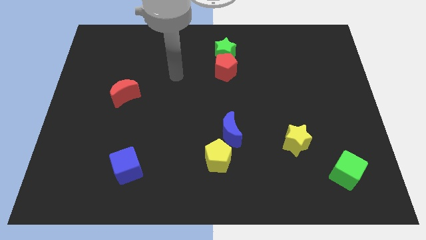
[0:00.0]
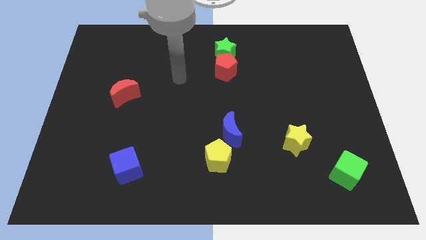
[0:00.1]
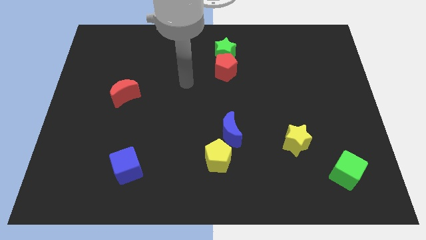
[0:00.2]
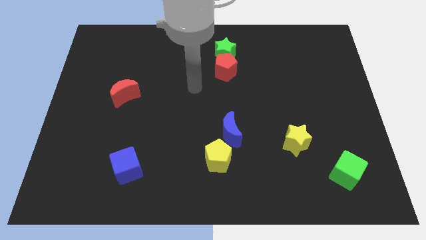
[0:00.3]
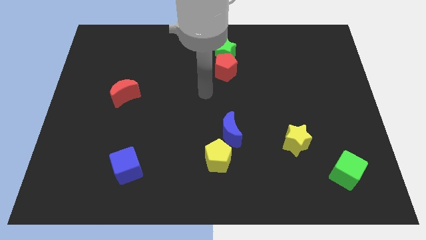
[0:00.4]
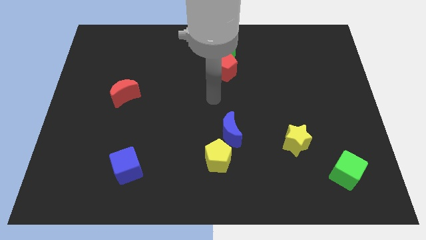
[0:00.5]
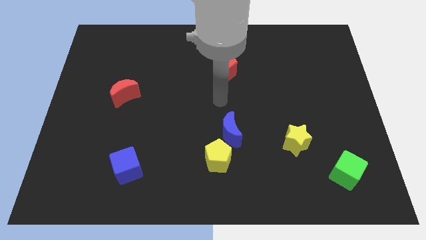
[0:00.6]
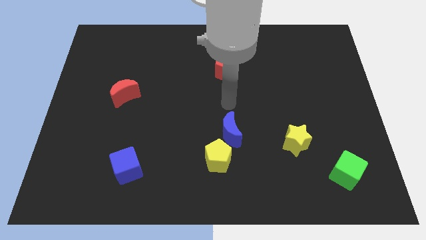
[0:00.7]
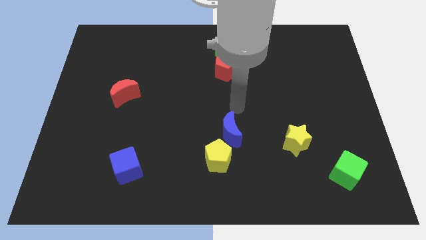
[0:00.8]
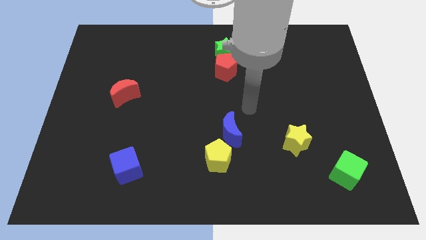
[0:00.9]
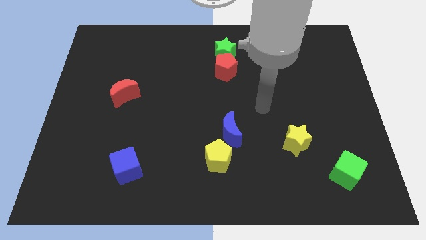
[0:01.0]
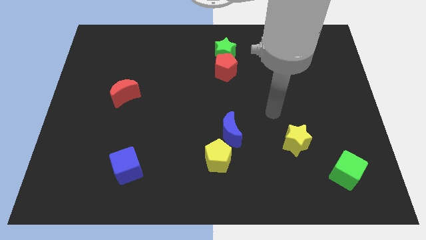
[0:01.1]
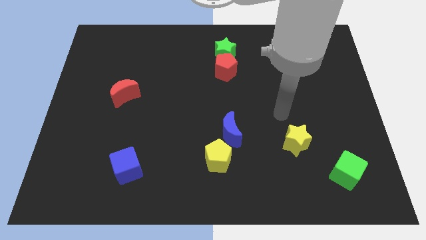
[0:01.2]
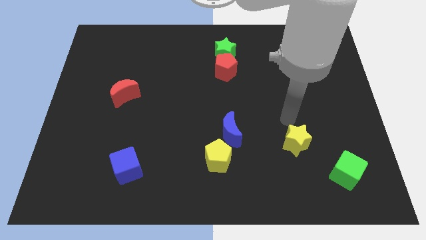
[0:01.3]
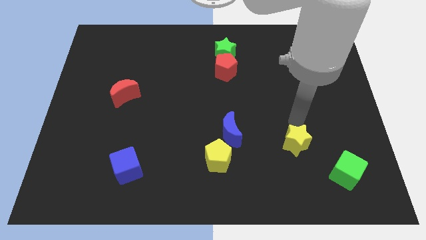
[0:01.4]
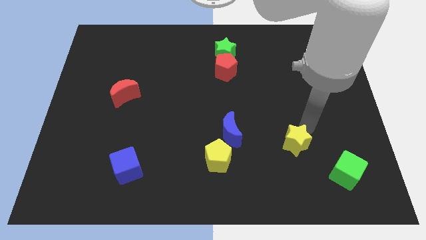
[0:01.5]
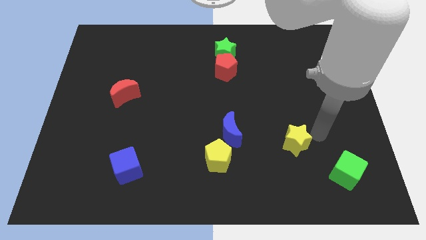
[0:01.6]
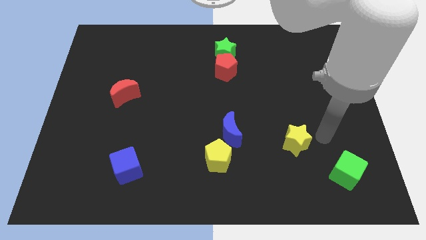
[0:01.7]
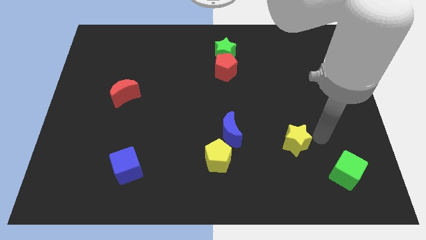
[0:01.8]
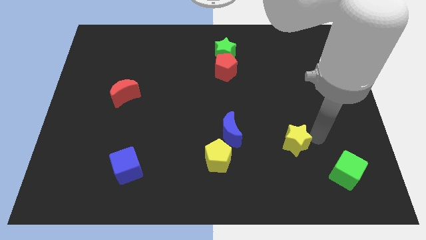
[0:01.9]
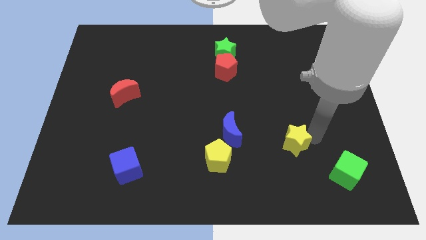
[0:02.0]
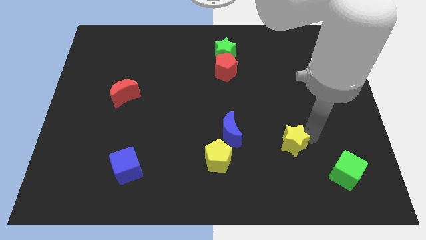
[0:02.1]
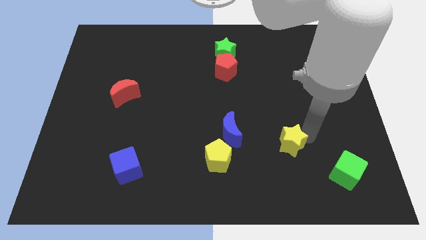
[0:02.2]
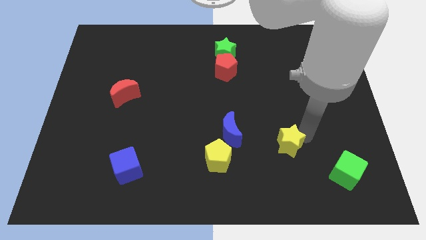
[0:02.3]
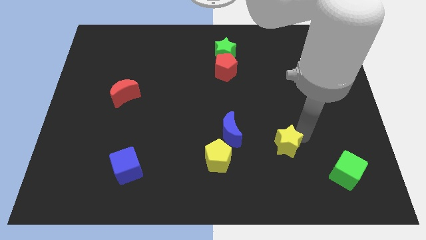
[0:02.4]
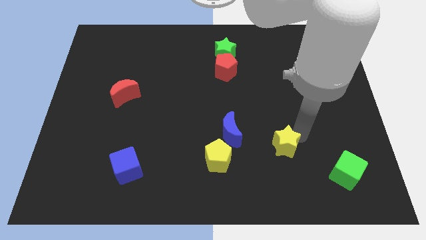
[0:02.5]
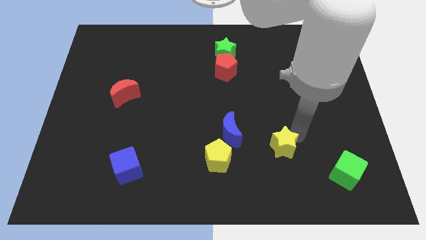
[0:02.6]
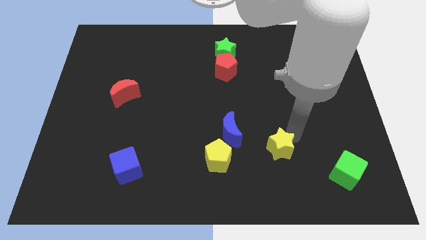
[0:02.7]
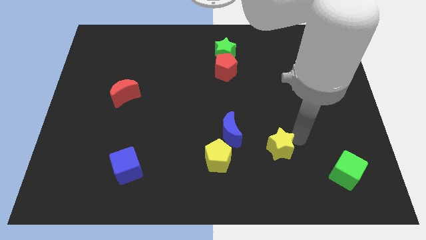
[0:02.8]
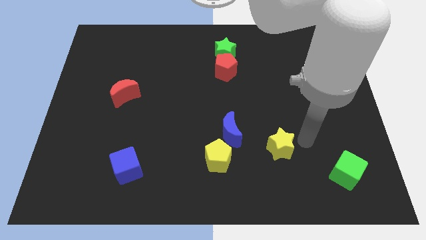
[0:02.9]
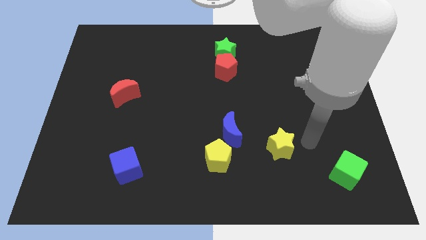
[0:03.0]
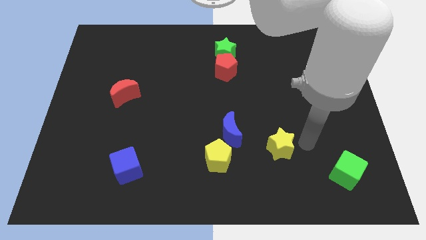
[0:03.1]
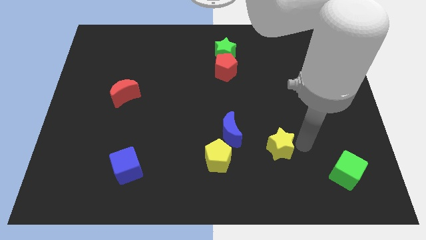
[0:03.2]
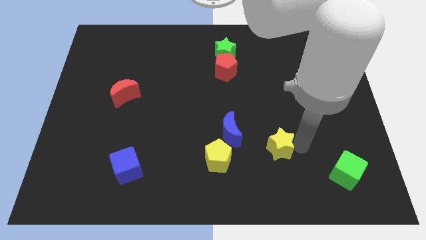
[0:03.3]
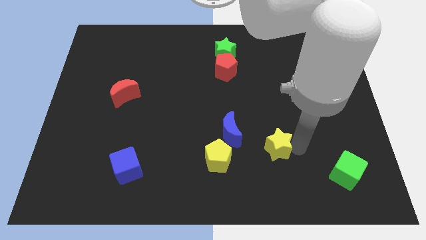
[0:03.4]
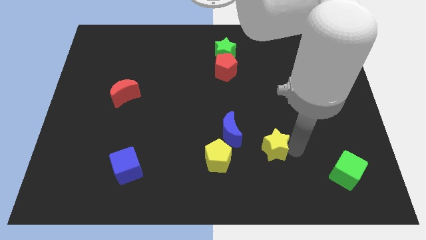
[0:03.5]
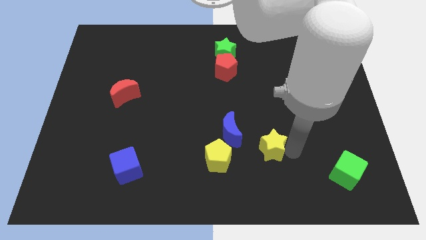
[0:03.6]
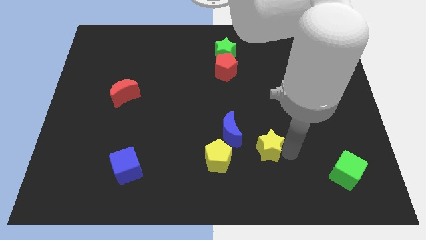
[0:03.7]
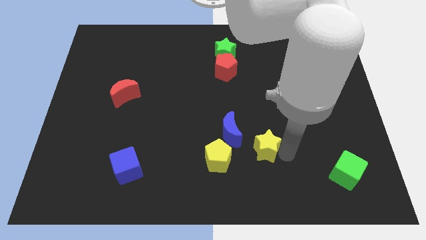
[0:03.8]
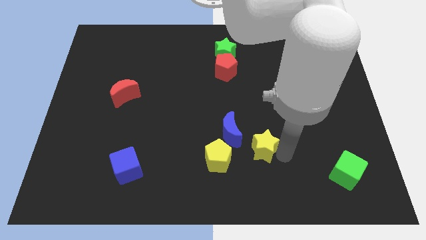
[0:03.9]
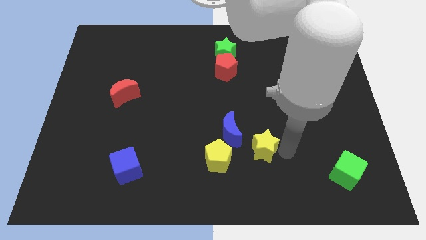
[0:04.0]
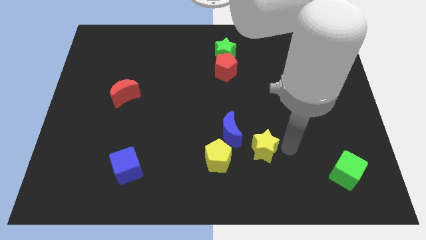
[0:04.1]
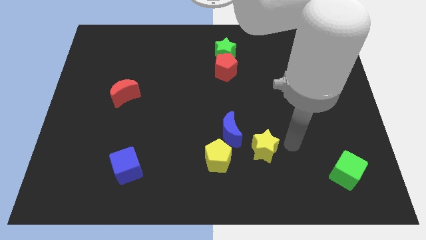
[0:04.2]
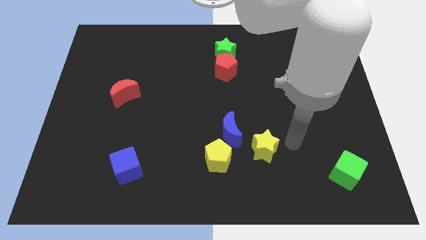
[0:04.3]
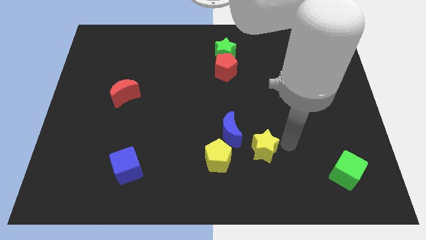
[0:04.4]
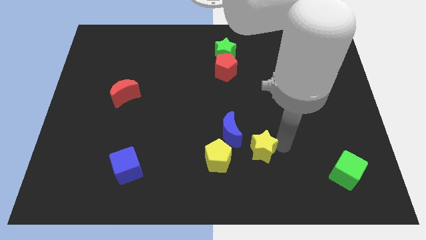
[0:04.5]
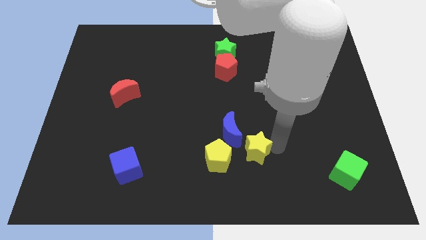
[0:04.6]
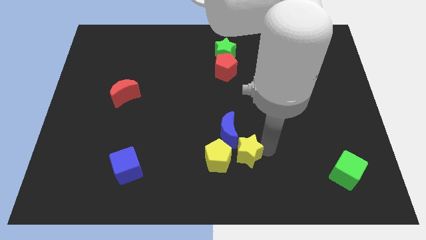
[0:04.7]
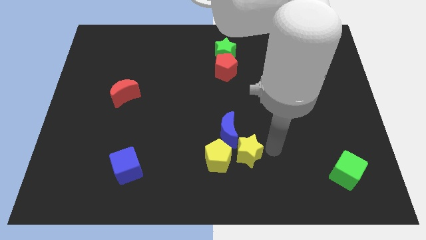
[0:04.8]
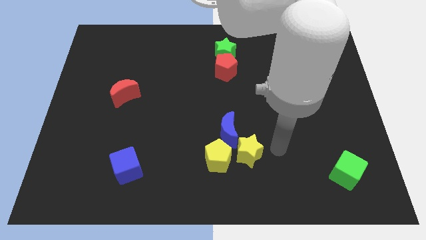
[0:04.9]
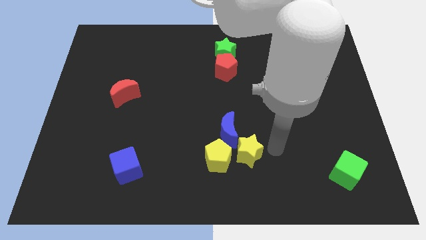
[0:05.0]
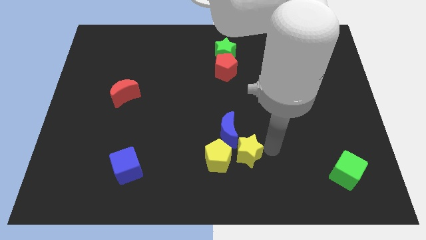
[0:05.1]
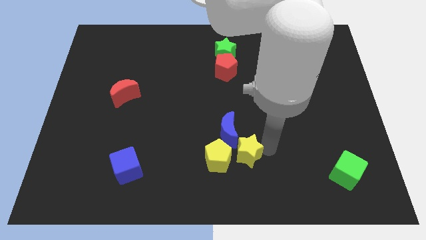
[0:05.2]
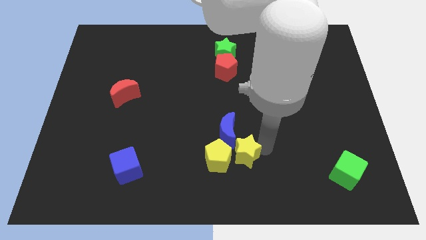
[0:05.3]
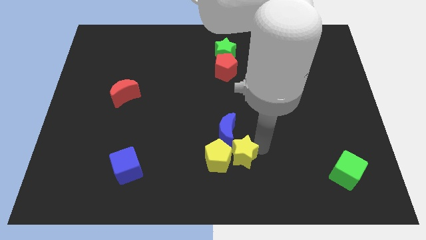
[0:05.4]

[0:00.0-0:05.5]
put the yellow star towards the yellow pentagon

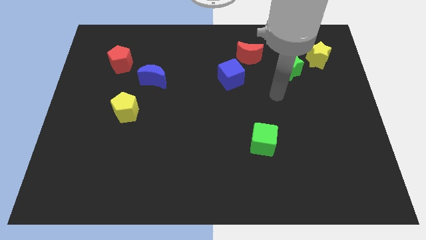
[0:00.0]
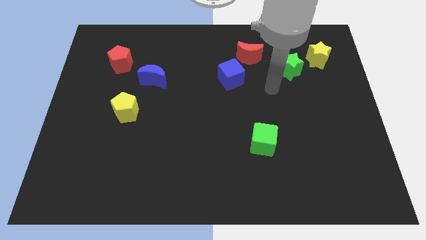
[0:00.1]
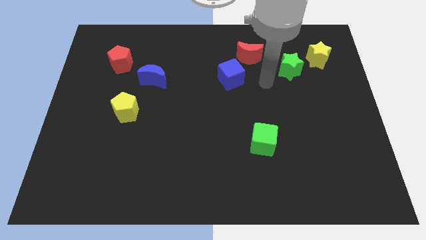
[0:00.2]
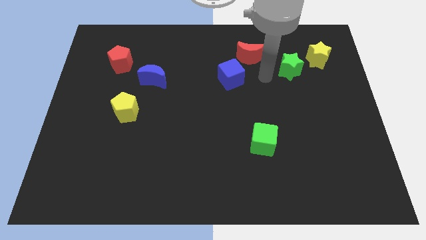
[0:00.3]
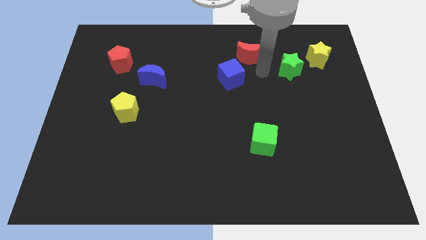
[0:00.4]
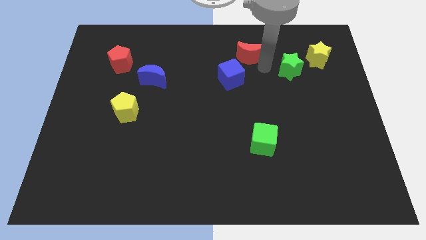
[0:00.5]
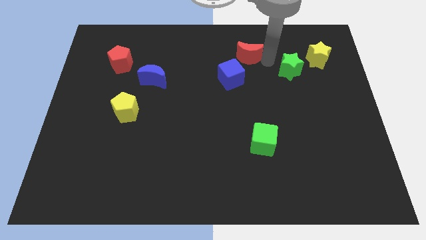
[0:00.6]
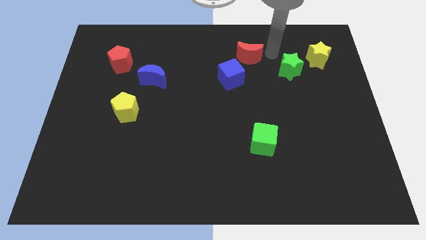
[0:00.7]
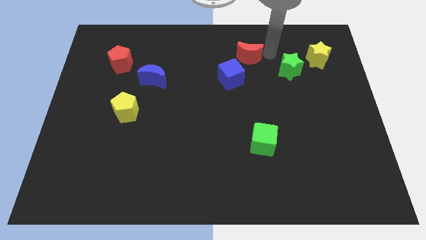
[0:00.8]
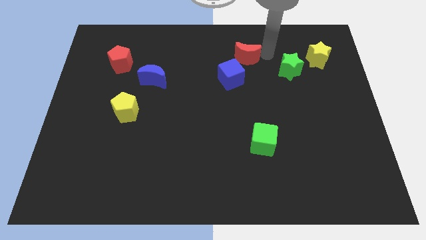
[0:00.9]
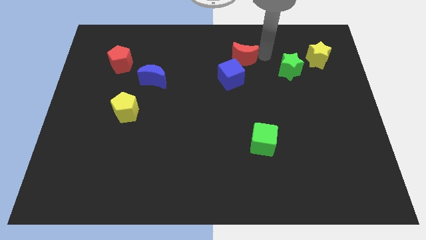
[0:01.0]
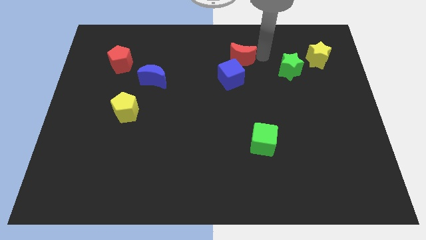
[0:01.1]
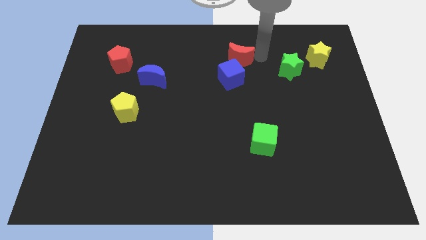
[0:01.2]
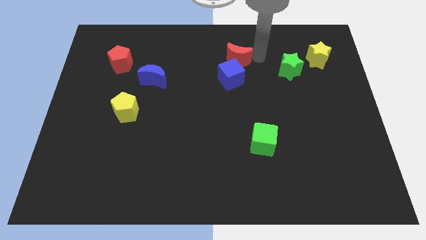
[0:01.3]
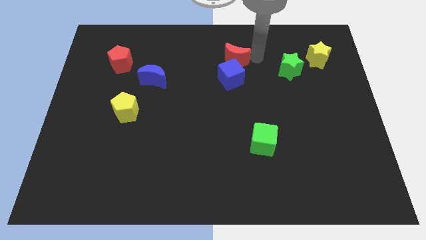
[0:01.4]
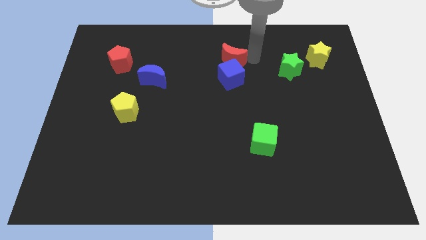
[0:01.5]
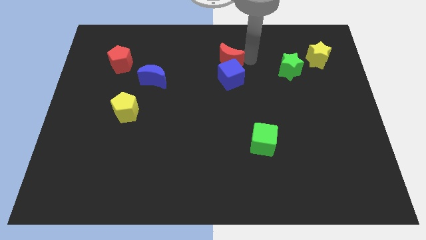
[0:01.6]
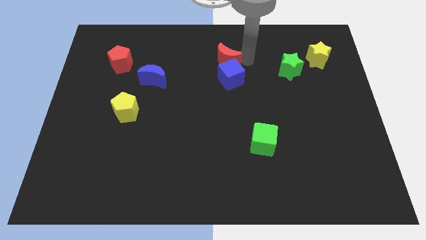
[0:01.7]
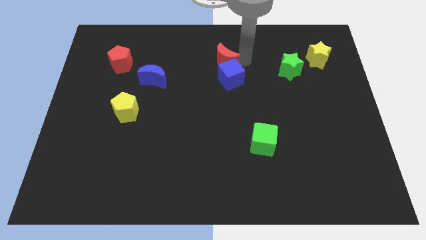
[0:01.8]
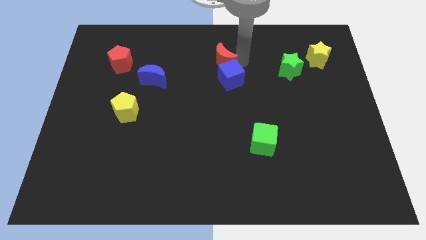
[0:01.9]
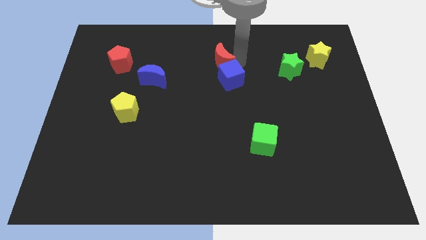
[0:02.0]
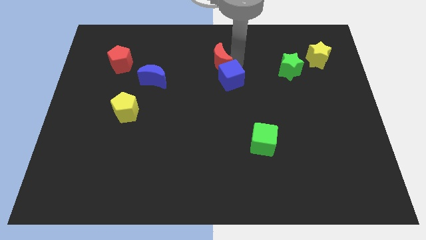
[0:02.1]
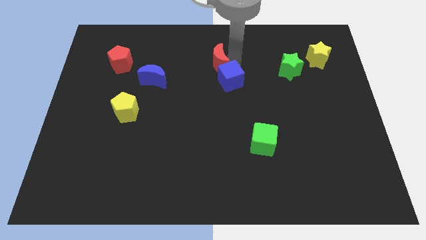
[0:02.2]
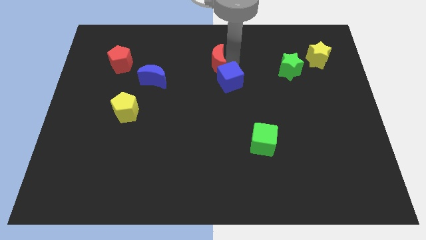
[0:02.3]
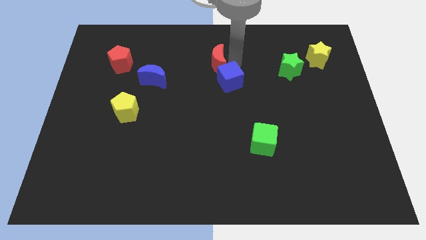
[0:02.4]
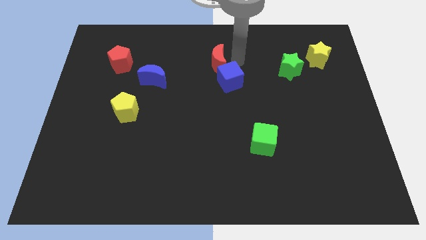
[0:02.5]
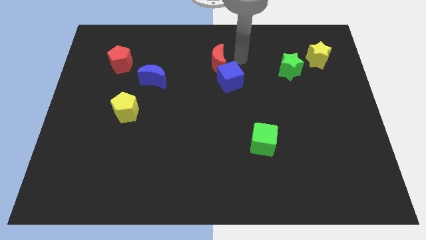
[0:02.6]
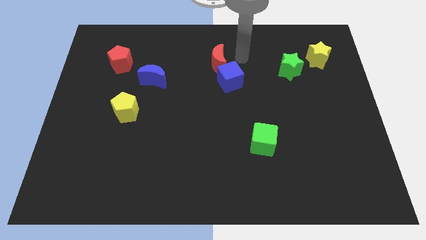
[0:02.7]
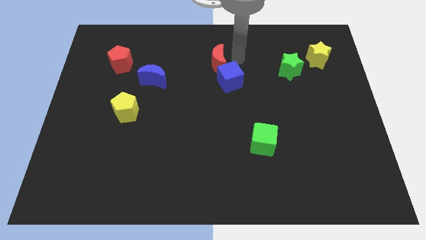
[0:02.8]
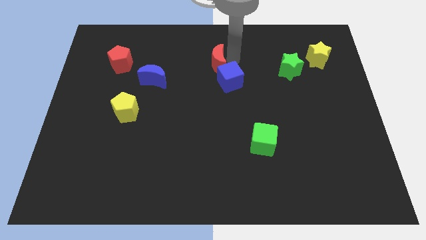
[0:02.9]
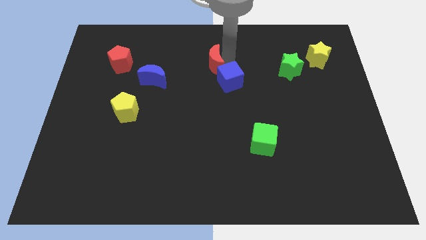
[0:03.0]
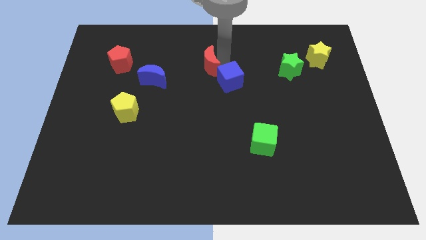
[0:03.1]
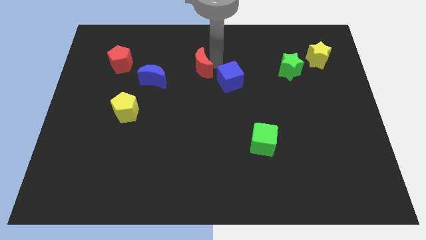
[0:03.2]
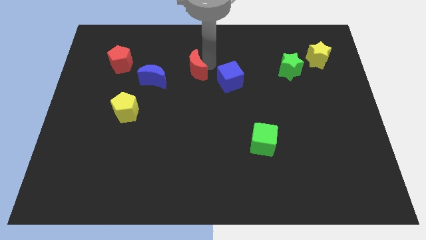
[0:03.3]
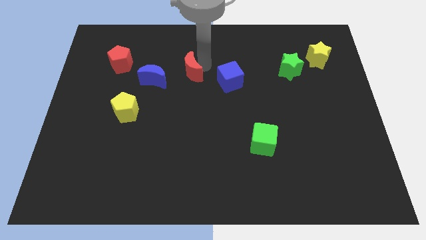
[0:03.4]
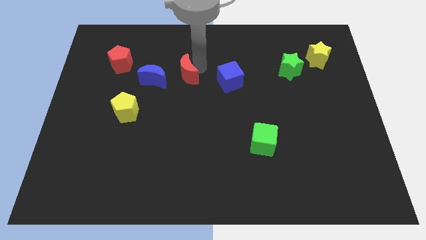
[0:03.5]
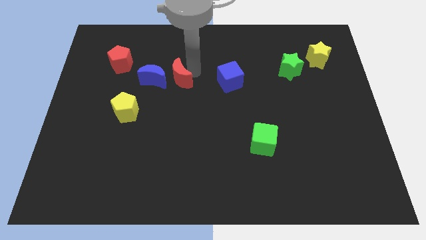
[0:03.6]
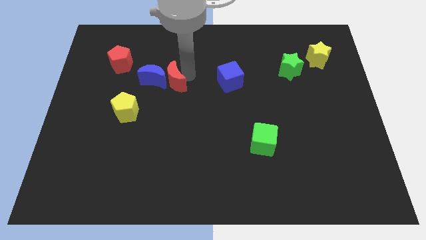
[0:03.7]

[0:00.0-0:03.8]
move the red moon to the blue moon
